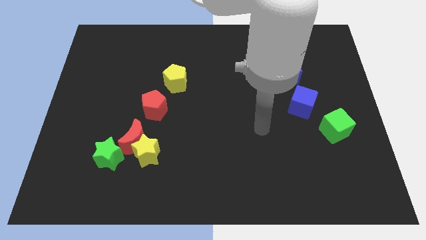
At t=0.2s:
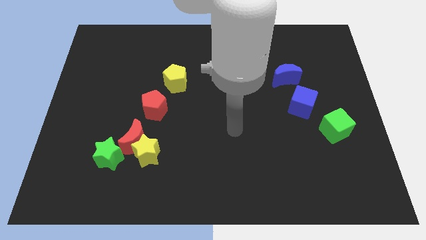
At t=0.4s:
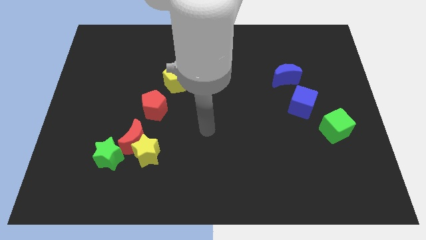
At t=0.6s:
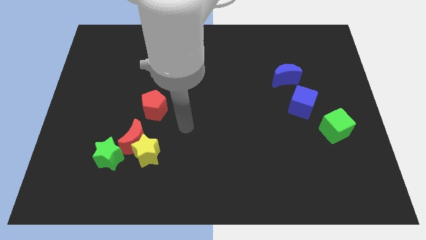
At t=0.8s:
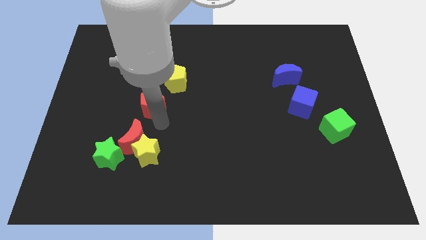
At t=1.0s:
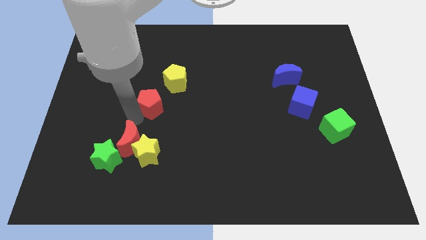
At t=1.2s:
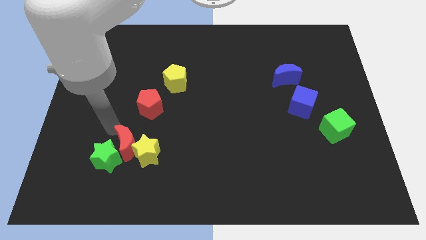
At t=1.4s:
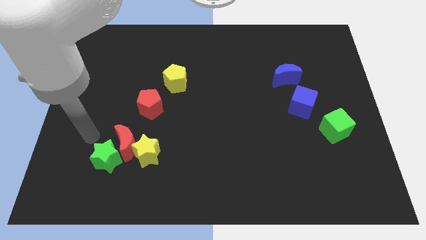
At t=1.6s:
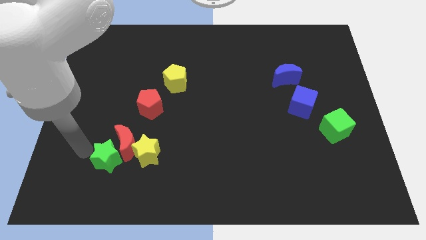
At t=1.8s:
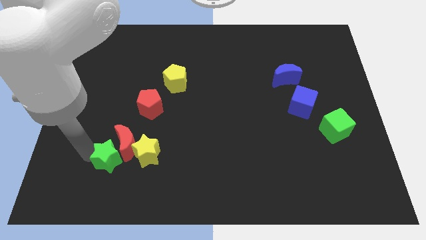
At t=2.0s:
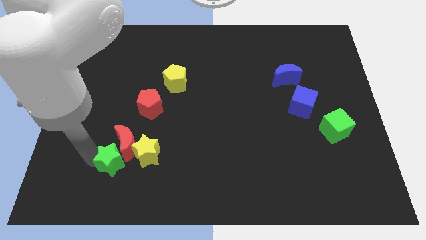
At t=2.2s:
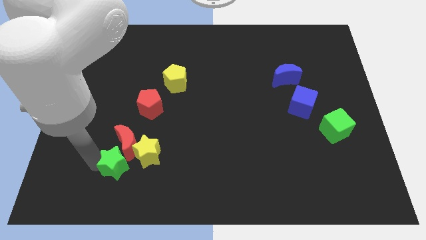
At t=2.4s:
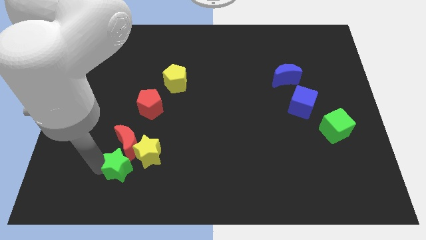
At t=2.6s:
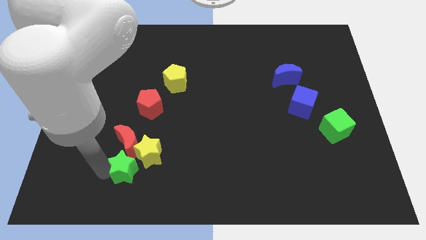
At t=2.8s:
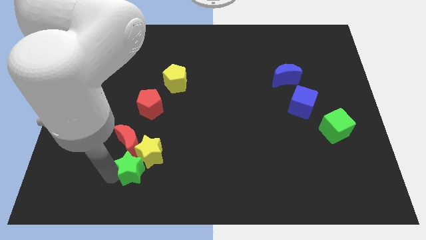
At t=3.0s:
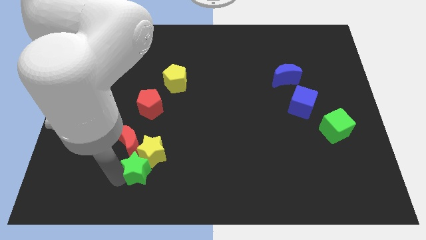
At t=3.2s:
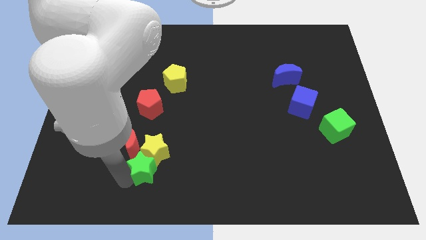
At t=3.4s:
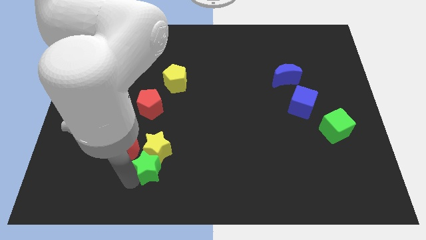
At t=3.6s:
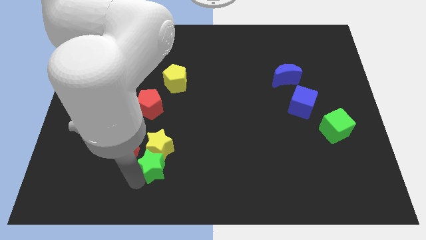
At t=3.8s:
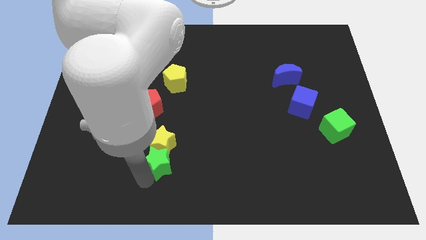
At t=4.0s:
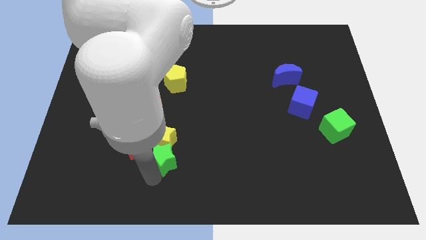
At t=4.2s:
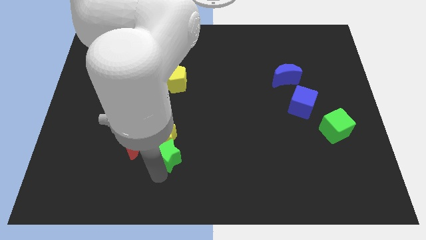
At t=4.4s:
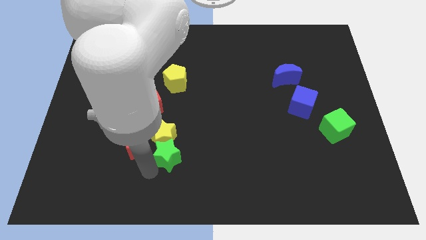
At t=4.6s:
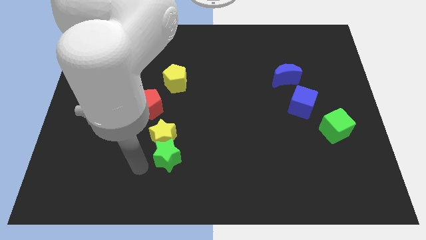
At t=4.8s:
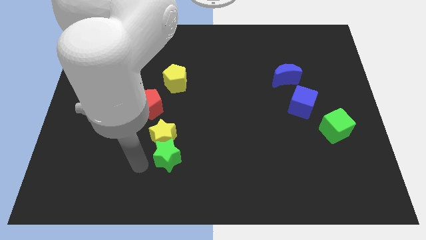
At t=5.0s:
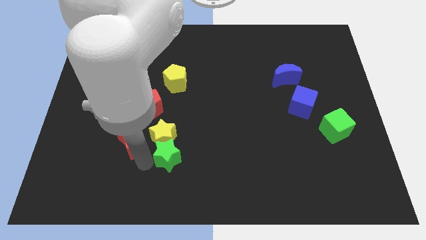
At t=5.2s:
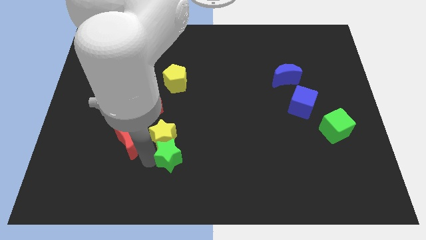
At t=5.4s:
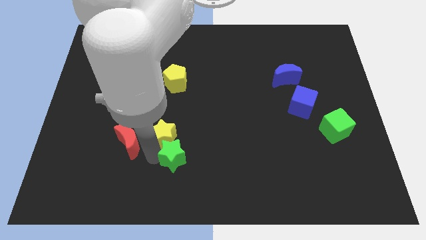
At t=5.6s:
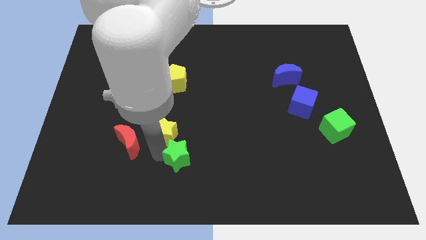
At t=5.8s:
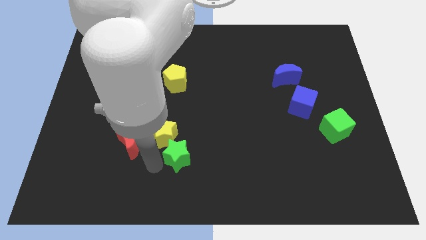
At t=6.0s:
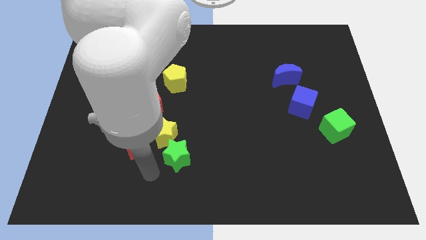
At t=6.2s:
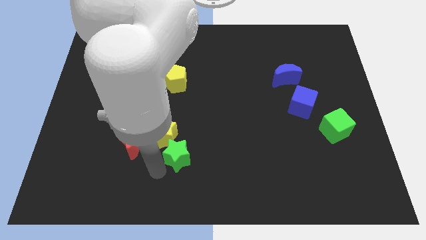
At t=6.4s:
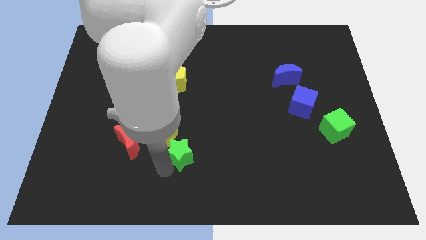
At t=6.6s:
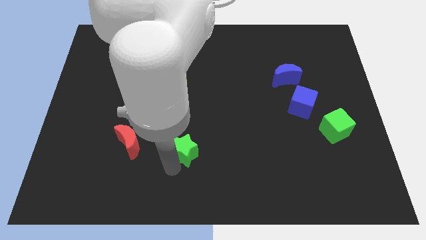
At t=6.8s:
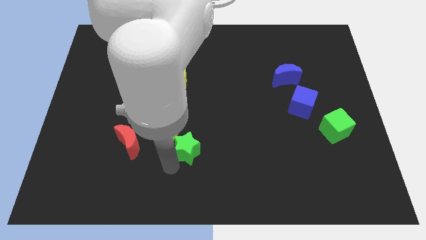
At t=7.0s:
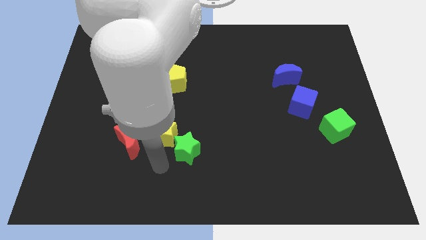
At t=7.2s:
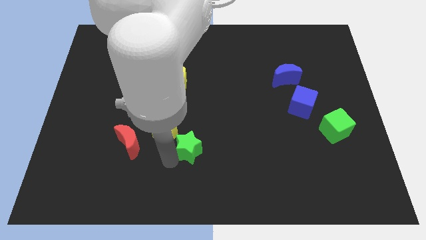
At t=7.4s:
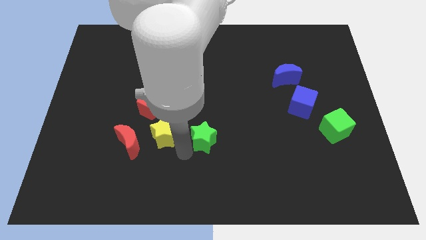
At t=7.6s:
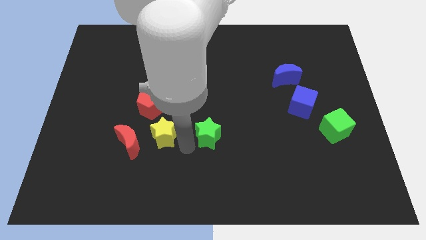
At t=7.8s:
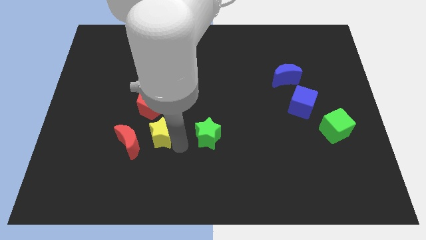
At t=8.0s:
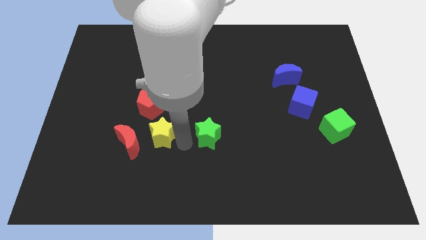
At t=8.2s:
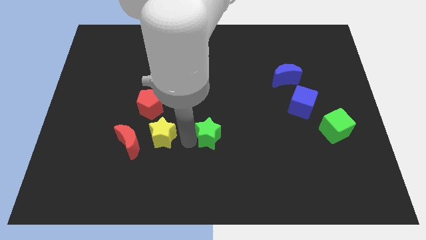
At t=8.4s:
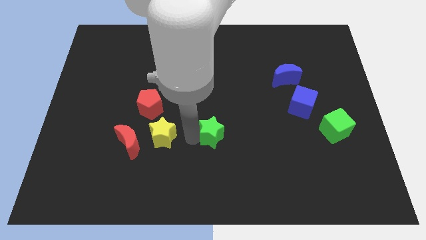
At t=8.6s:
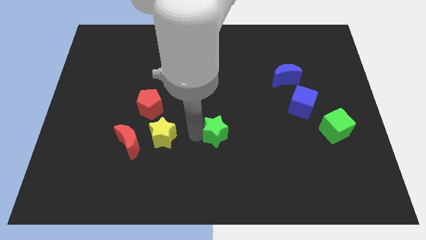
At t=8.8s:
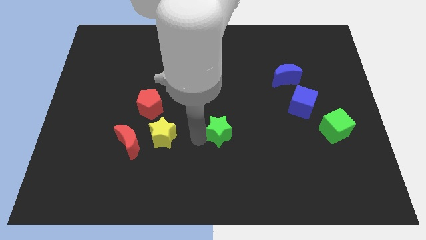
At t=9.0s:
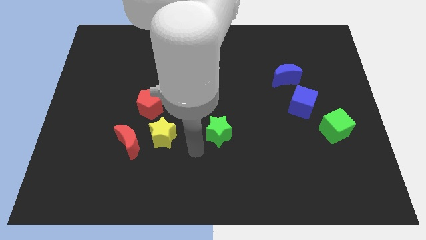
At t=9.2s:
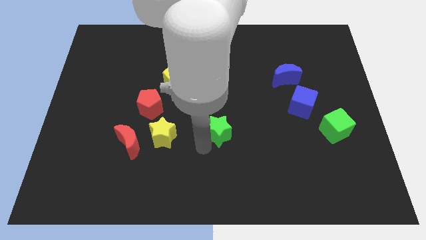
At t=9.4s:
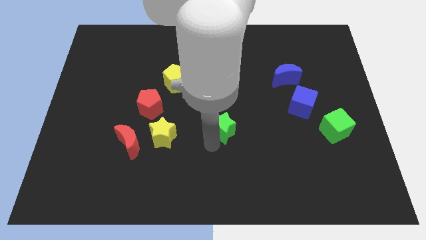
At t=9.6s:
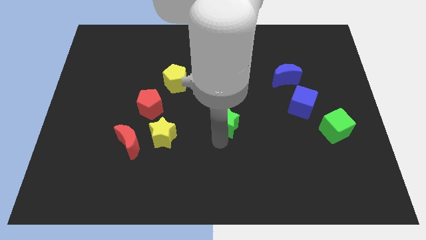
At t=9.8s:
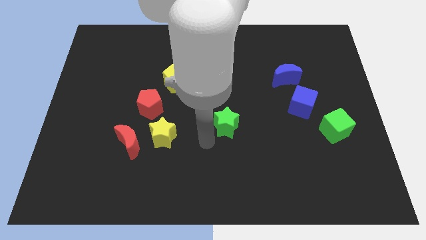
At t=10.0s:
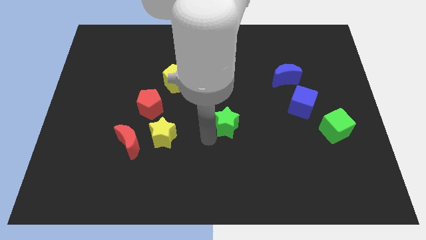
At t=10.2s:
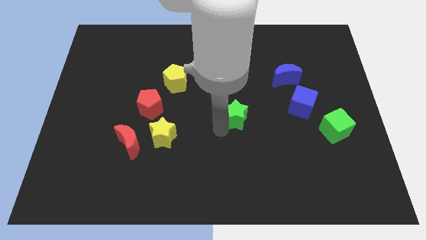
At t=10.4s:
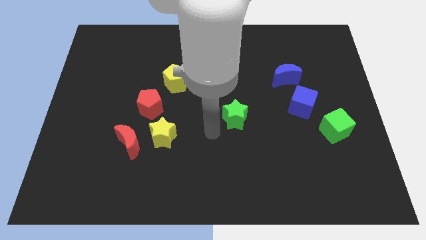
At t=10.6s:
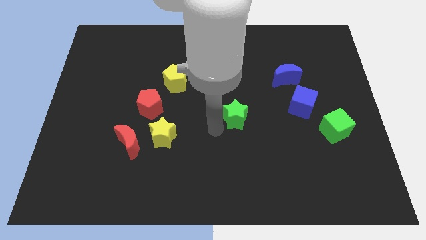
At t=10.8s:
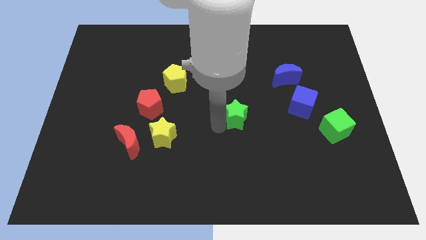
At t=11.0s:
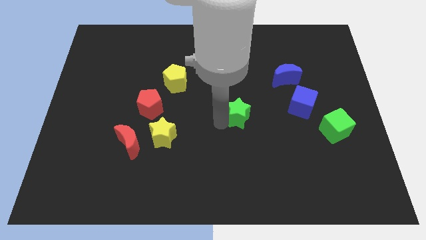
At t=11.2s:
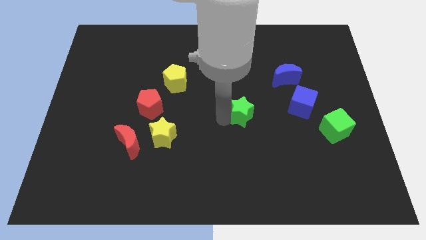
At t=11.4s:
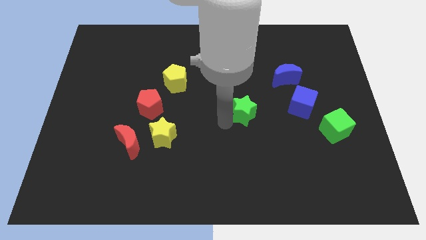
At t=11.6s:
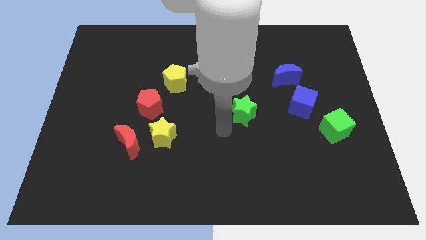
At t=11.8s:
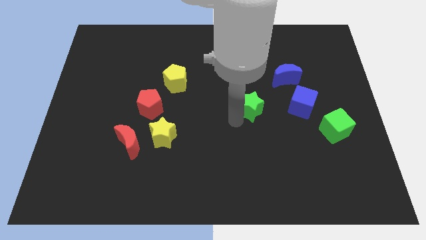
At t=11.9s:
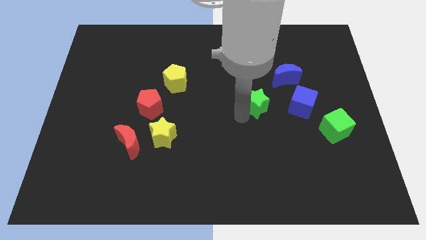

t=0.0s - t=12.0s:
push the green star to the bottom left side of the blue moon

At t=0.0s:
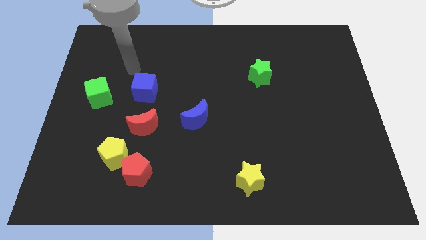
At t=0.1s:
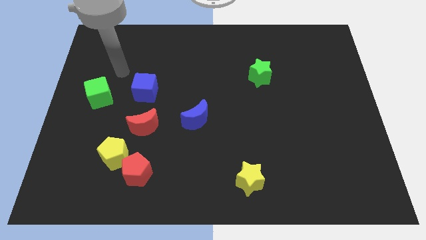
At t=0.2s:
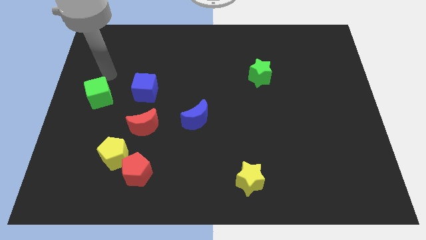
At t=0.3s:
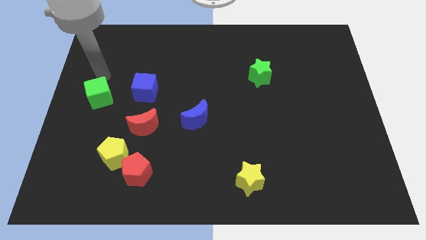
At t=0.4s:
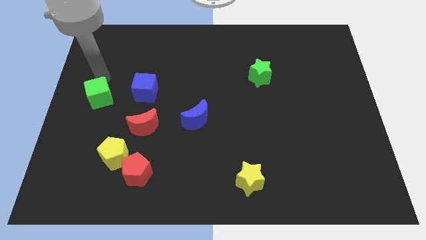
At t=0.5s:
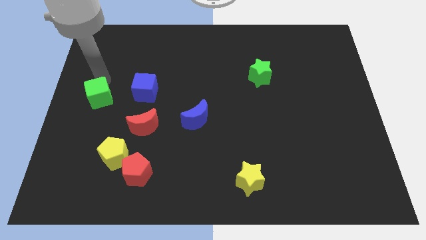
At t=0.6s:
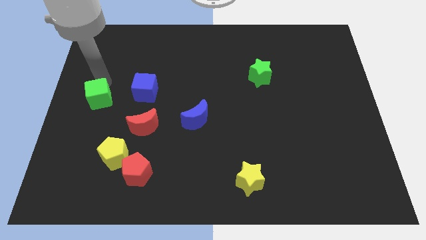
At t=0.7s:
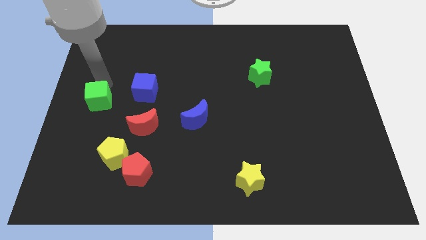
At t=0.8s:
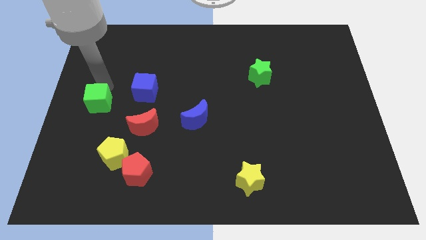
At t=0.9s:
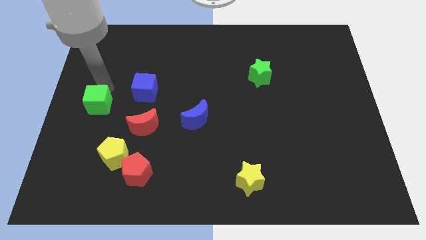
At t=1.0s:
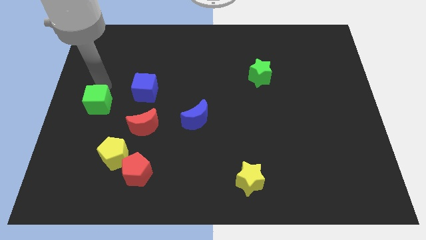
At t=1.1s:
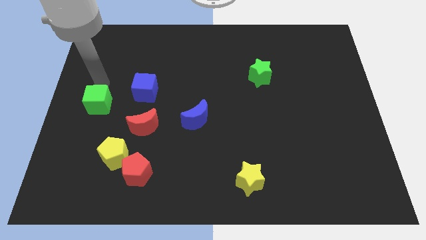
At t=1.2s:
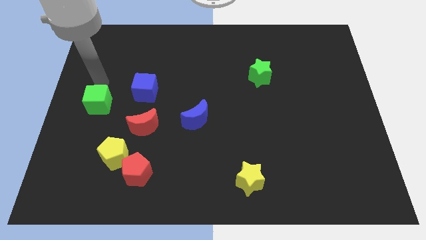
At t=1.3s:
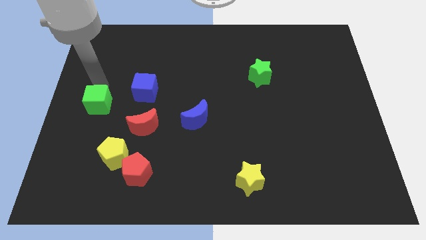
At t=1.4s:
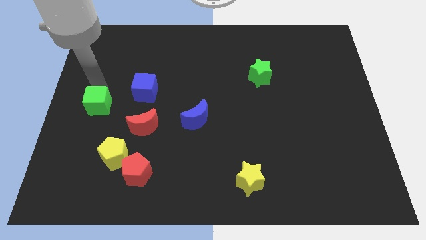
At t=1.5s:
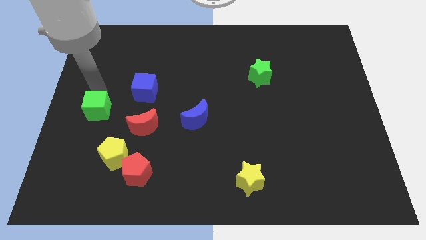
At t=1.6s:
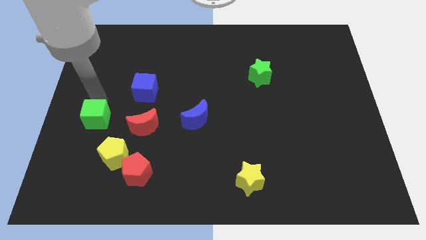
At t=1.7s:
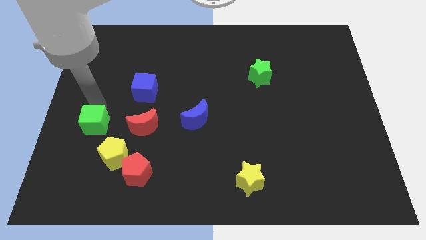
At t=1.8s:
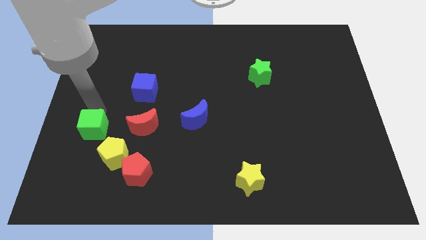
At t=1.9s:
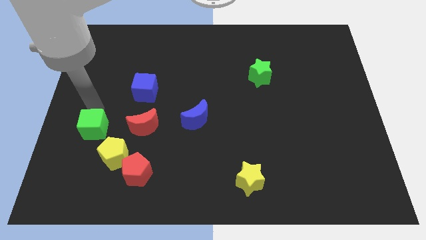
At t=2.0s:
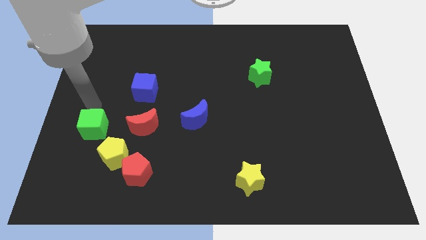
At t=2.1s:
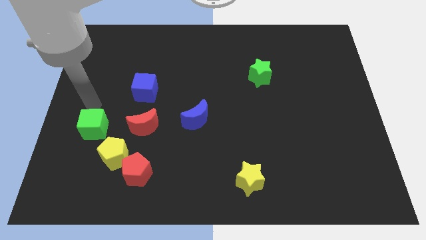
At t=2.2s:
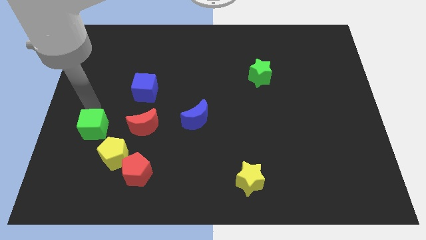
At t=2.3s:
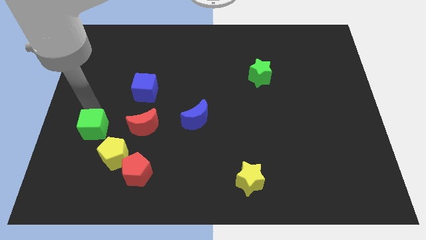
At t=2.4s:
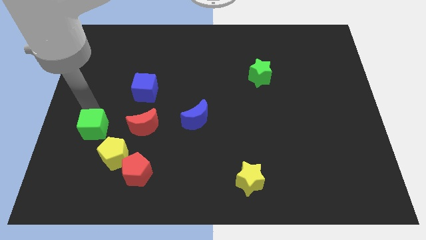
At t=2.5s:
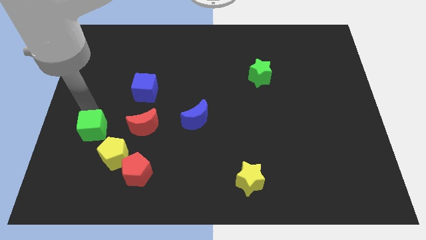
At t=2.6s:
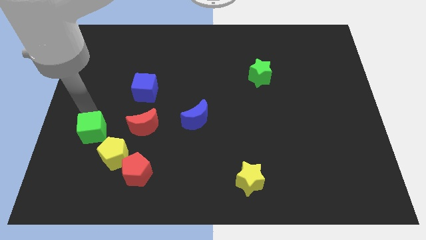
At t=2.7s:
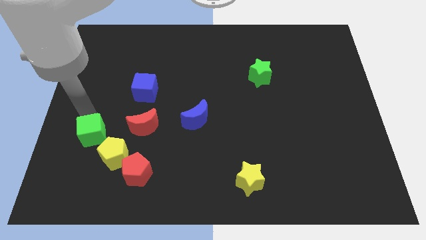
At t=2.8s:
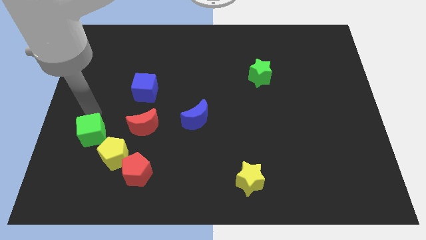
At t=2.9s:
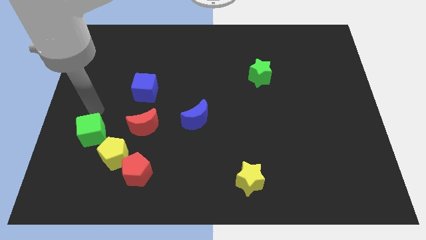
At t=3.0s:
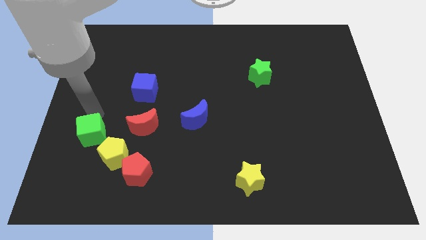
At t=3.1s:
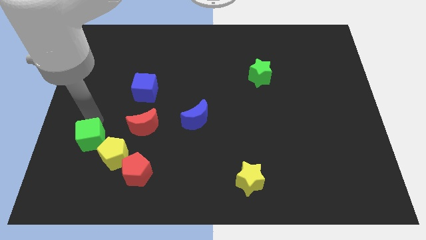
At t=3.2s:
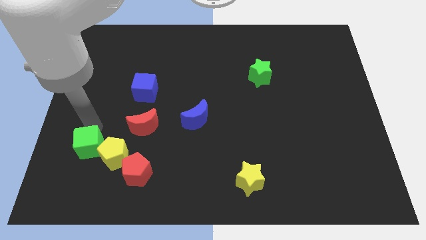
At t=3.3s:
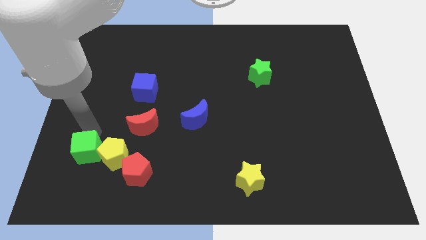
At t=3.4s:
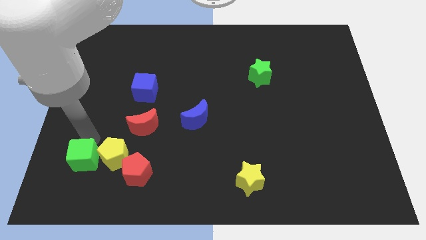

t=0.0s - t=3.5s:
push the green cube to the bottom left of the yellow pentagon
